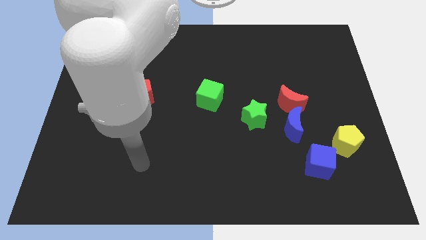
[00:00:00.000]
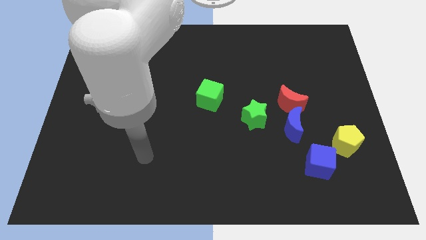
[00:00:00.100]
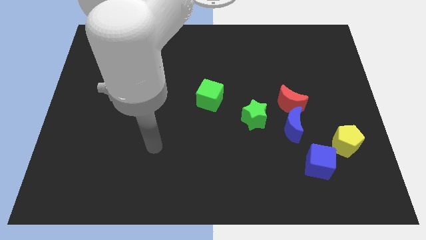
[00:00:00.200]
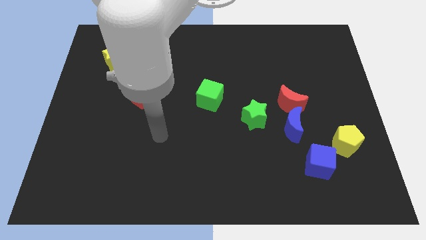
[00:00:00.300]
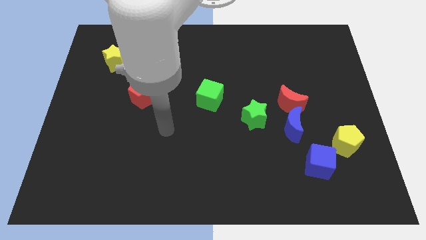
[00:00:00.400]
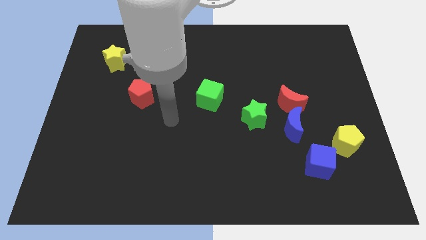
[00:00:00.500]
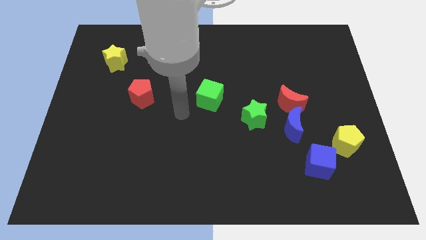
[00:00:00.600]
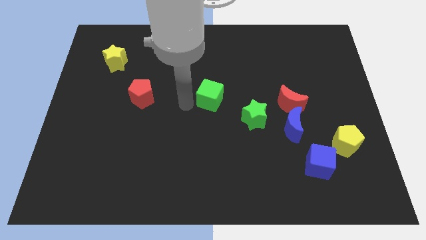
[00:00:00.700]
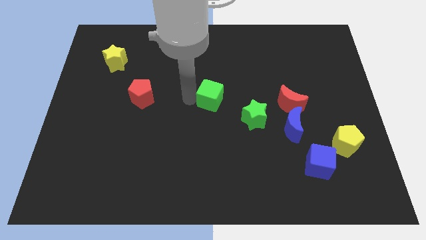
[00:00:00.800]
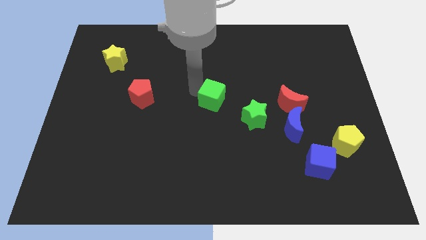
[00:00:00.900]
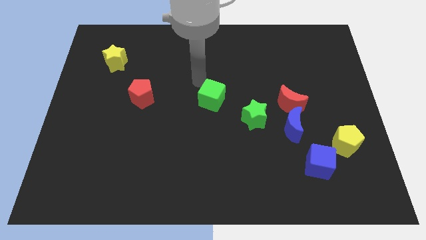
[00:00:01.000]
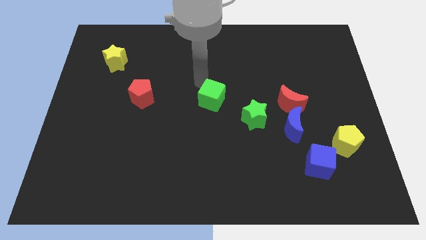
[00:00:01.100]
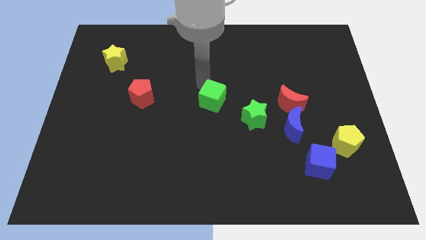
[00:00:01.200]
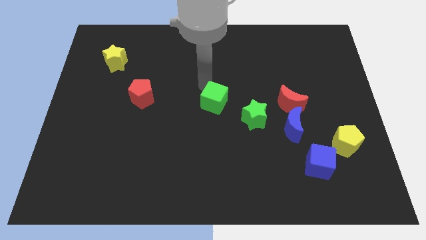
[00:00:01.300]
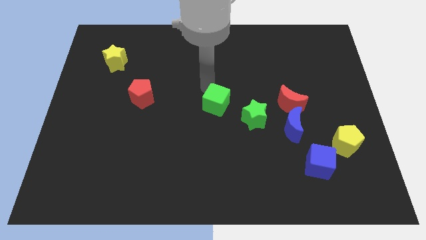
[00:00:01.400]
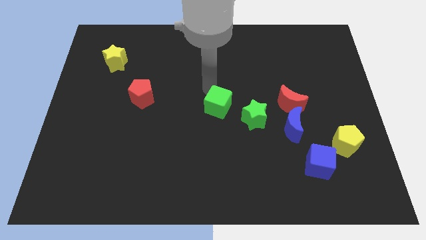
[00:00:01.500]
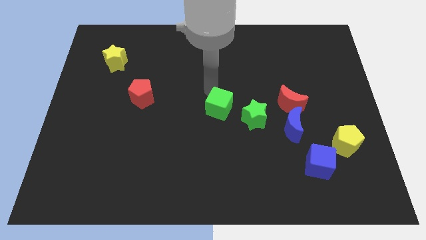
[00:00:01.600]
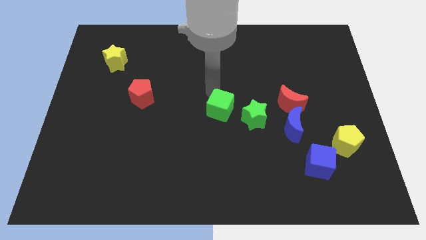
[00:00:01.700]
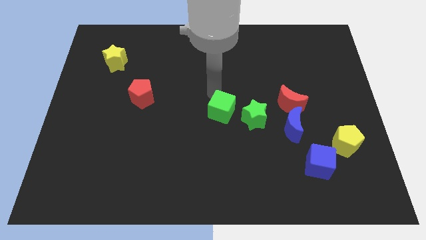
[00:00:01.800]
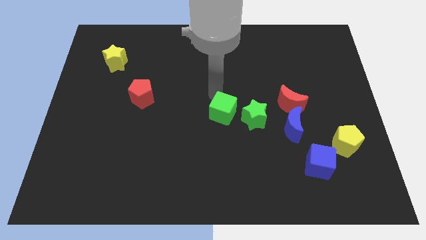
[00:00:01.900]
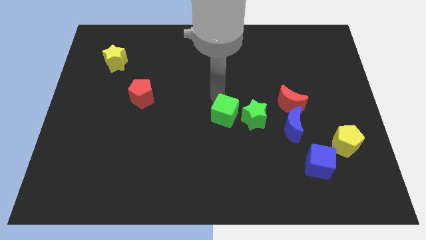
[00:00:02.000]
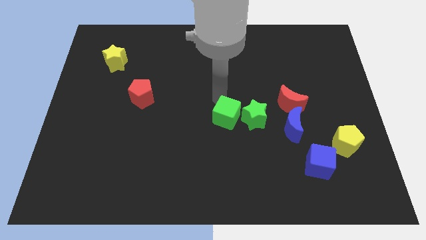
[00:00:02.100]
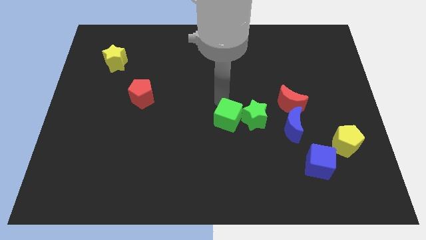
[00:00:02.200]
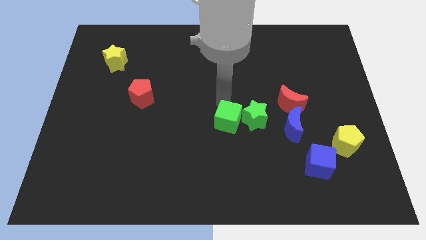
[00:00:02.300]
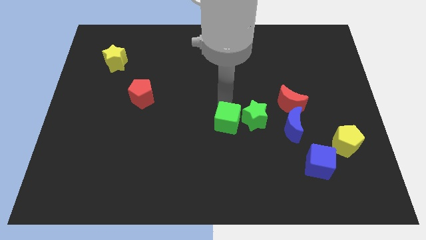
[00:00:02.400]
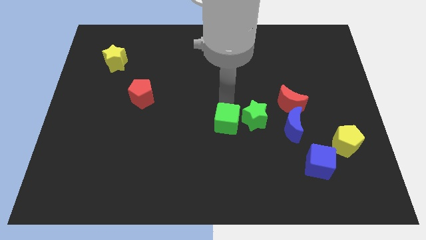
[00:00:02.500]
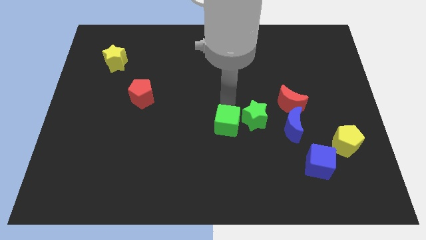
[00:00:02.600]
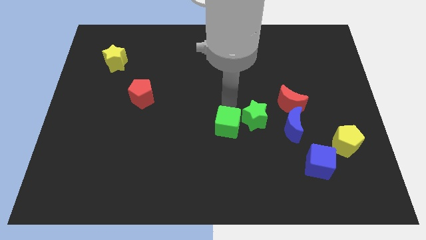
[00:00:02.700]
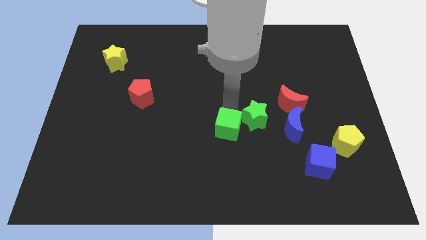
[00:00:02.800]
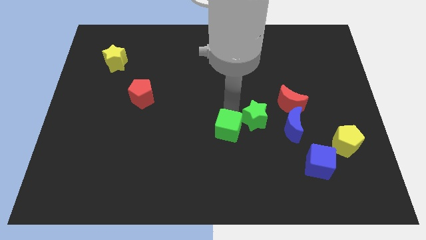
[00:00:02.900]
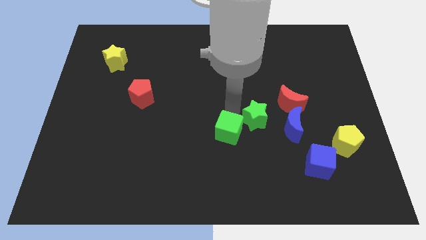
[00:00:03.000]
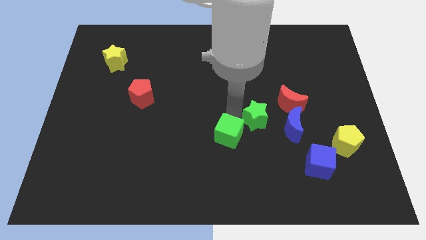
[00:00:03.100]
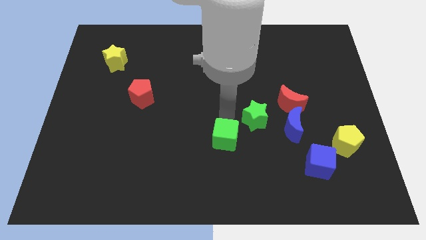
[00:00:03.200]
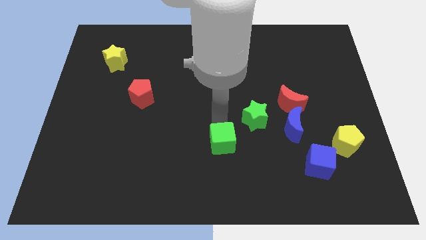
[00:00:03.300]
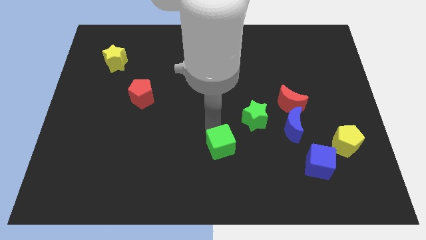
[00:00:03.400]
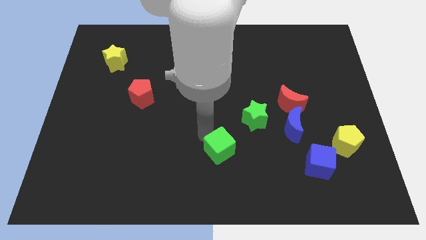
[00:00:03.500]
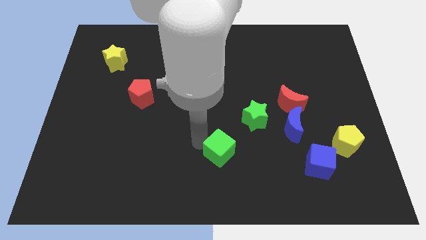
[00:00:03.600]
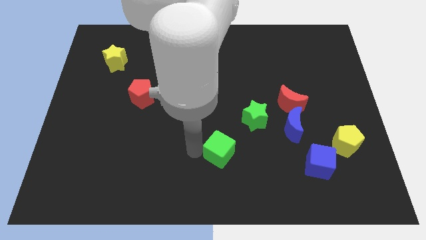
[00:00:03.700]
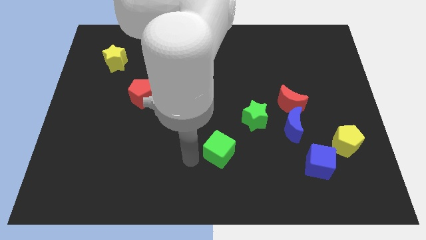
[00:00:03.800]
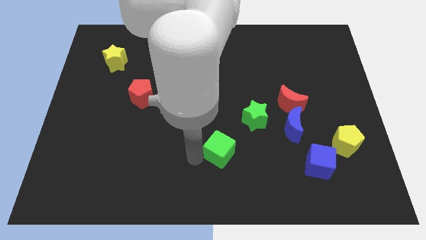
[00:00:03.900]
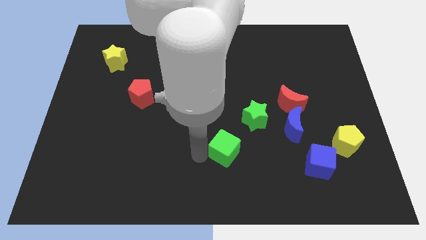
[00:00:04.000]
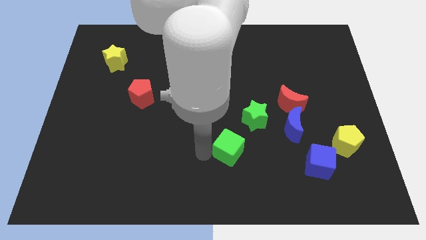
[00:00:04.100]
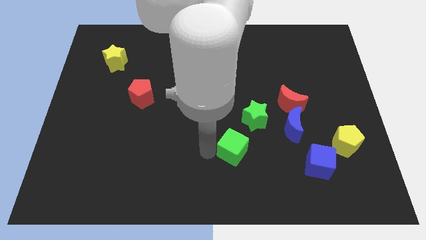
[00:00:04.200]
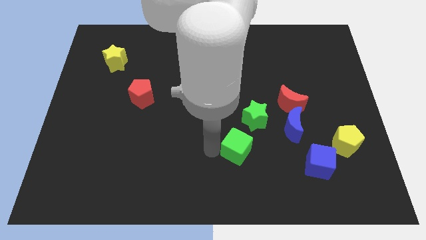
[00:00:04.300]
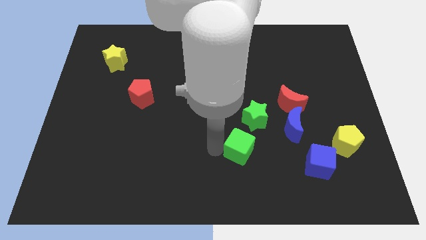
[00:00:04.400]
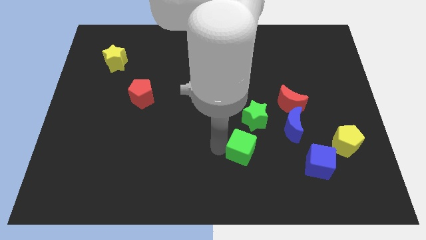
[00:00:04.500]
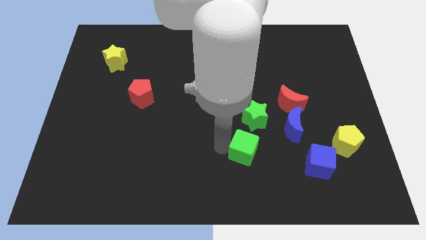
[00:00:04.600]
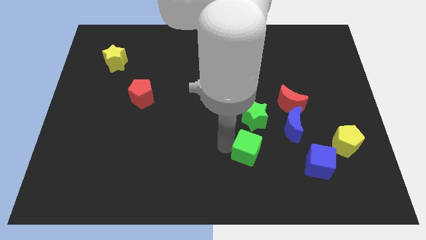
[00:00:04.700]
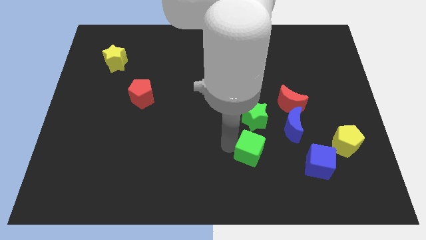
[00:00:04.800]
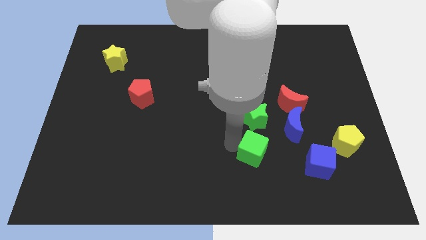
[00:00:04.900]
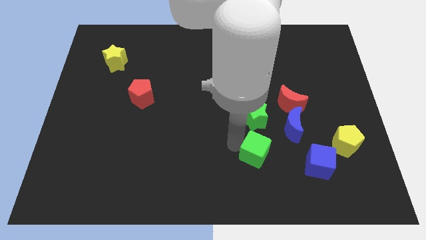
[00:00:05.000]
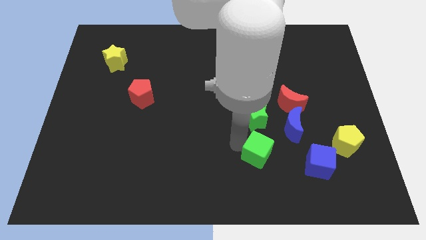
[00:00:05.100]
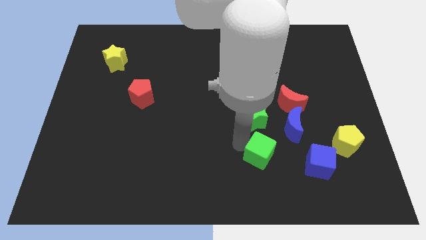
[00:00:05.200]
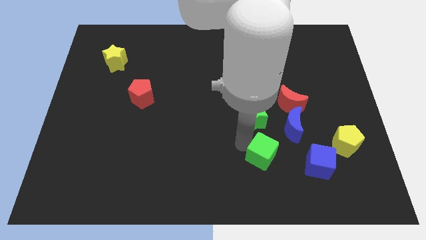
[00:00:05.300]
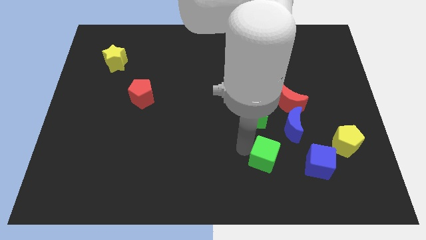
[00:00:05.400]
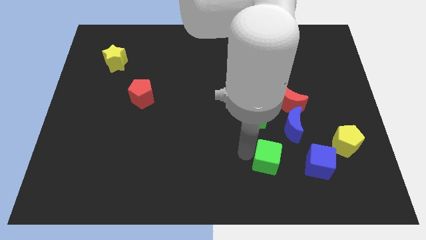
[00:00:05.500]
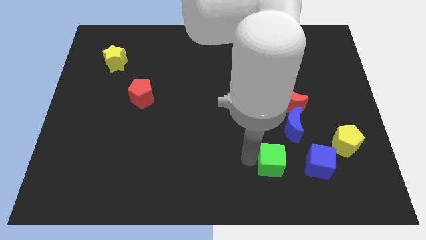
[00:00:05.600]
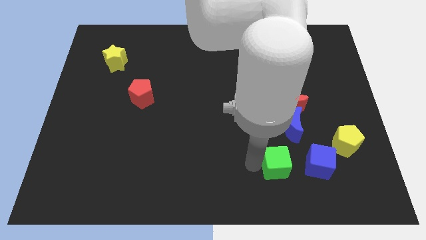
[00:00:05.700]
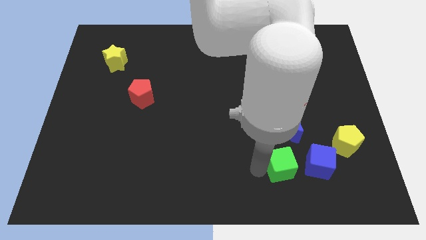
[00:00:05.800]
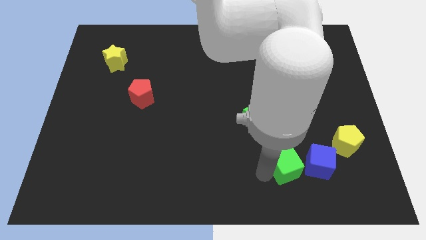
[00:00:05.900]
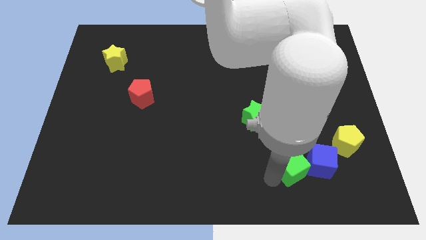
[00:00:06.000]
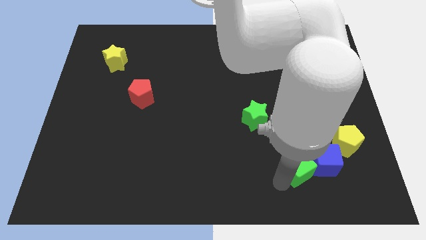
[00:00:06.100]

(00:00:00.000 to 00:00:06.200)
slide the green cube towards the blue cube
